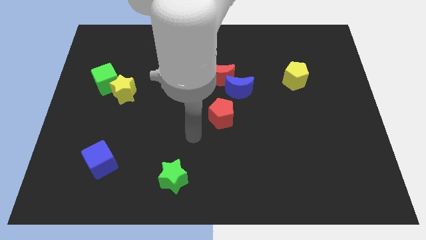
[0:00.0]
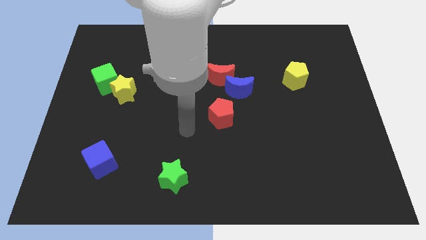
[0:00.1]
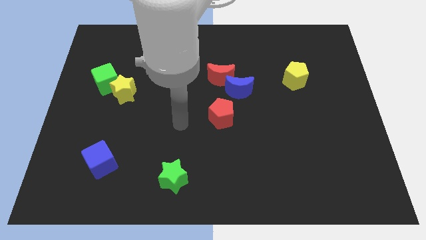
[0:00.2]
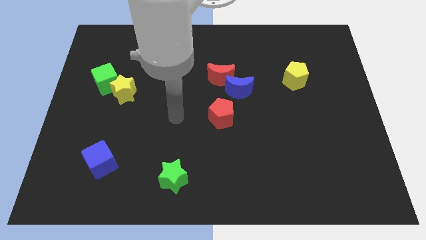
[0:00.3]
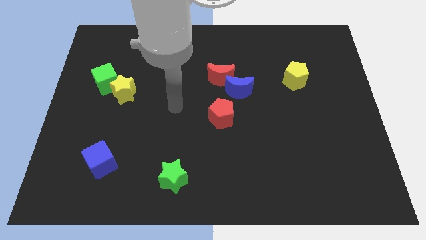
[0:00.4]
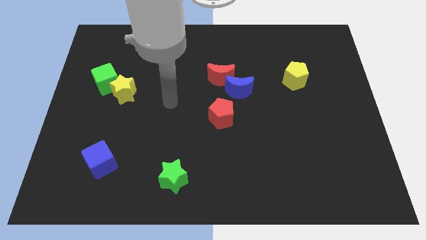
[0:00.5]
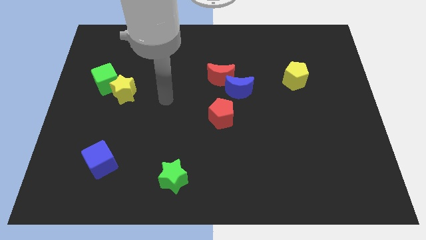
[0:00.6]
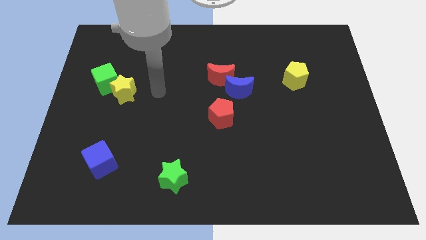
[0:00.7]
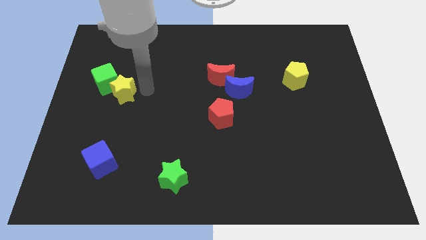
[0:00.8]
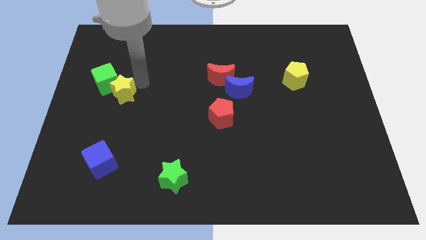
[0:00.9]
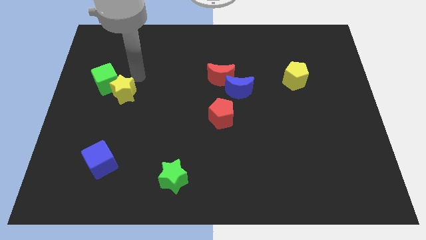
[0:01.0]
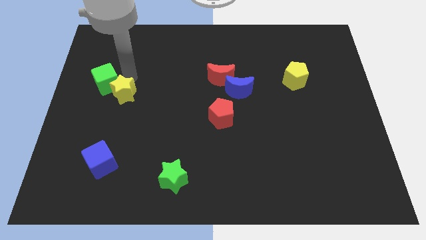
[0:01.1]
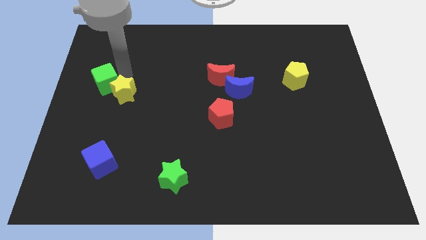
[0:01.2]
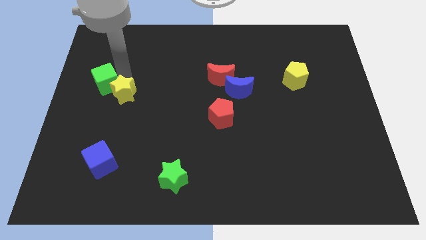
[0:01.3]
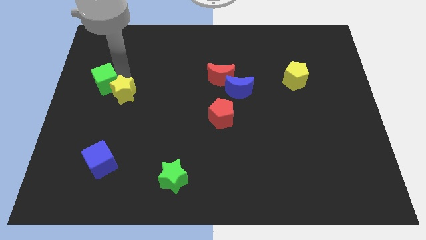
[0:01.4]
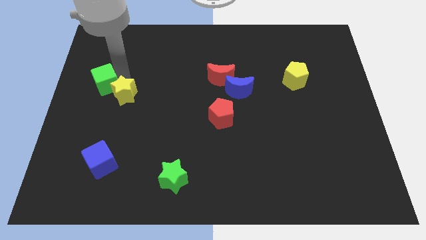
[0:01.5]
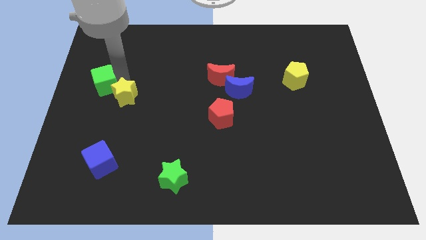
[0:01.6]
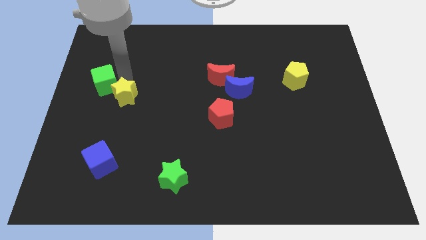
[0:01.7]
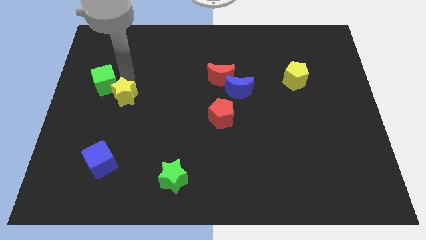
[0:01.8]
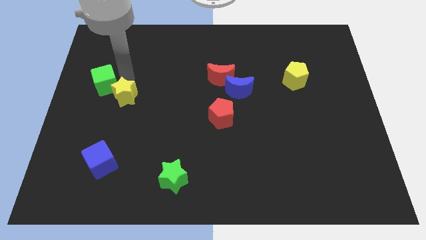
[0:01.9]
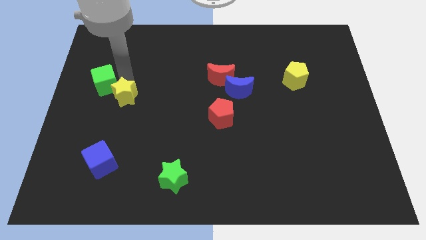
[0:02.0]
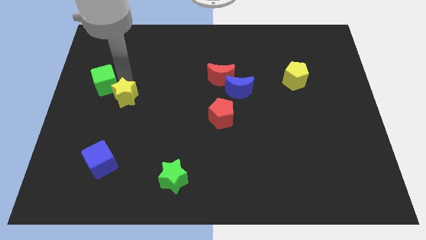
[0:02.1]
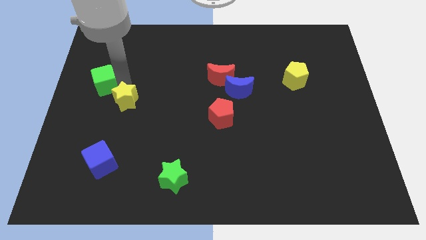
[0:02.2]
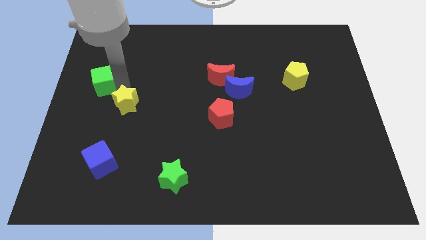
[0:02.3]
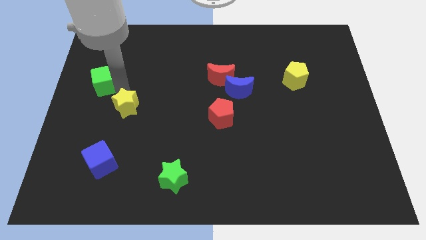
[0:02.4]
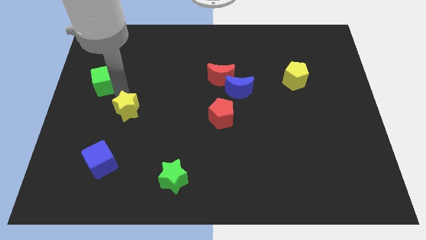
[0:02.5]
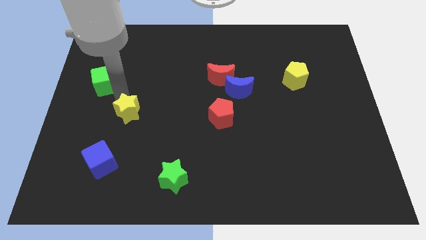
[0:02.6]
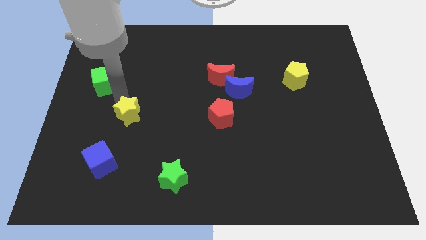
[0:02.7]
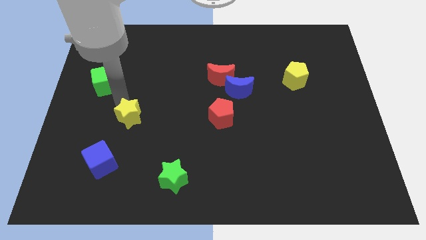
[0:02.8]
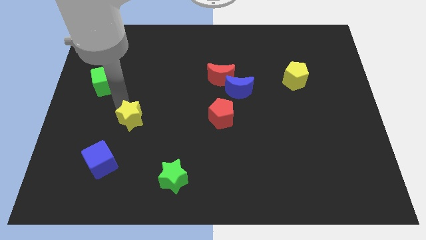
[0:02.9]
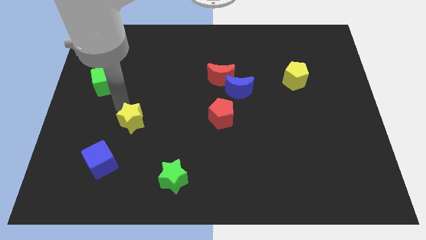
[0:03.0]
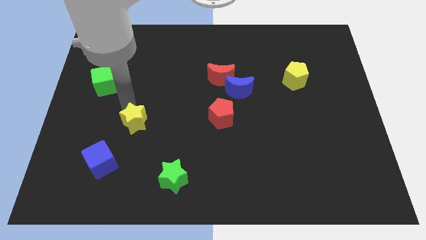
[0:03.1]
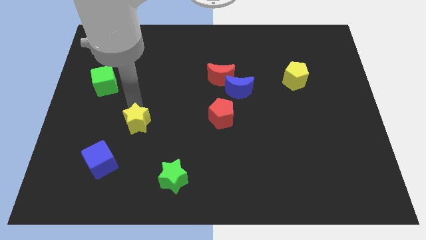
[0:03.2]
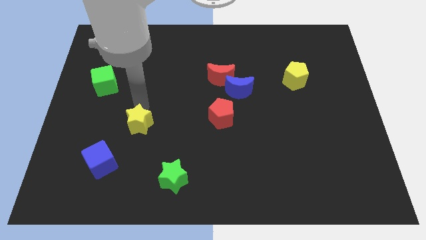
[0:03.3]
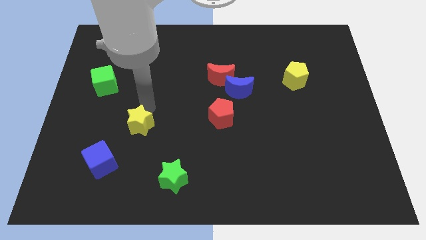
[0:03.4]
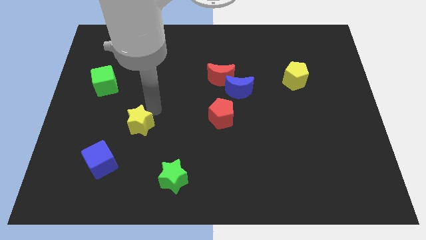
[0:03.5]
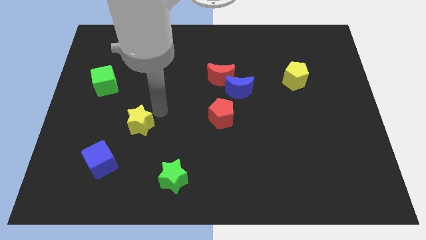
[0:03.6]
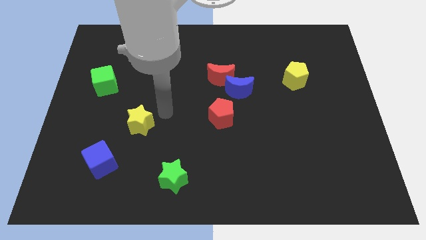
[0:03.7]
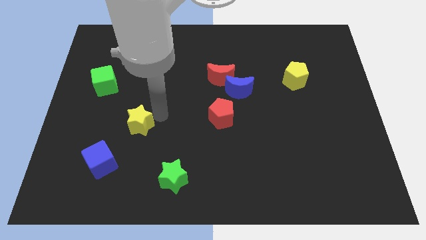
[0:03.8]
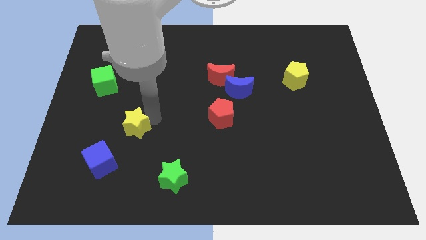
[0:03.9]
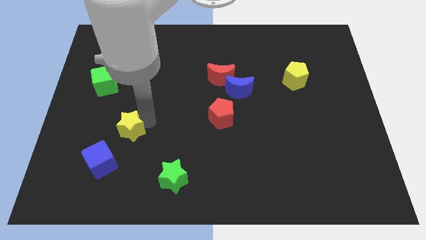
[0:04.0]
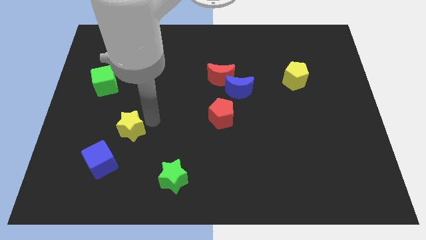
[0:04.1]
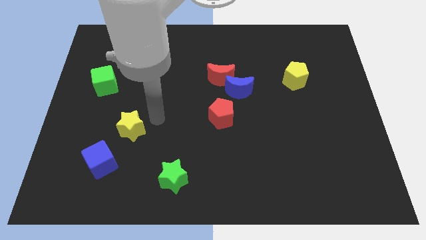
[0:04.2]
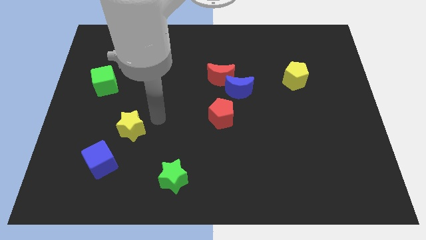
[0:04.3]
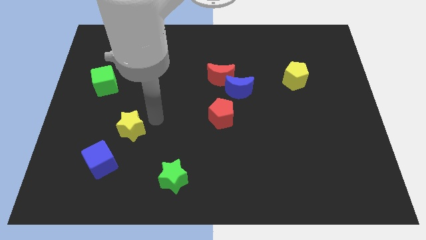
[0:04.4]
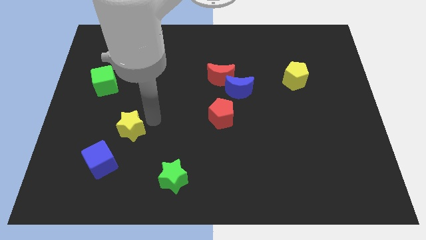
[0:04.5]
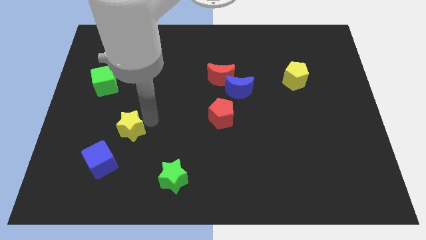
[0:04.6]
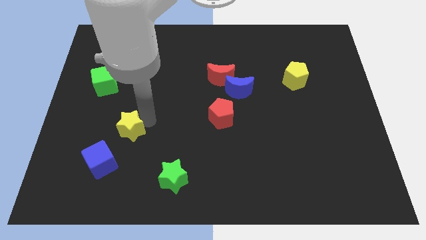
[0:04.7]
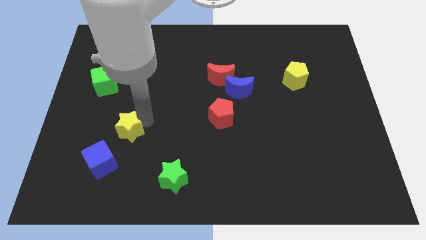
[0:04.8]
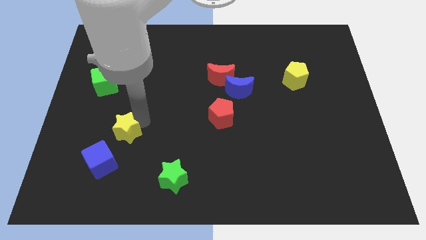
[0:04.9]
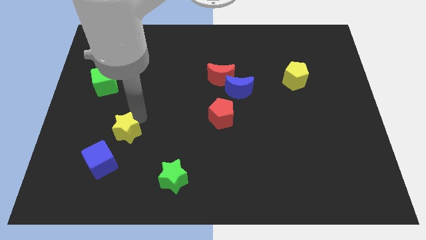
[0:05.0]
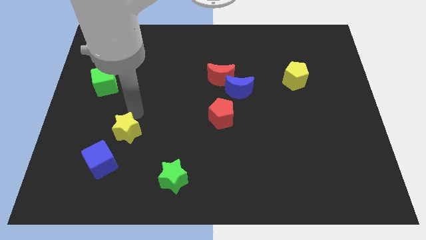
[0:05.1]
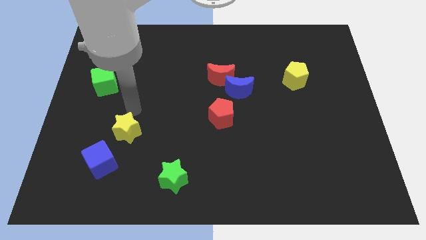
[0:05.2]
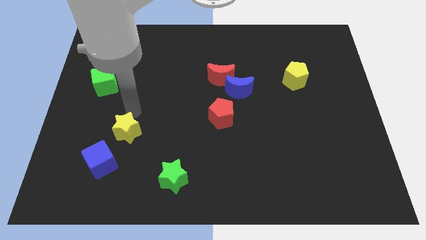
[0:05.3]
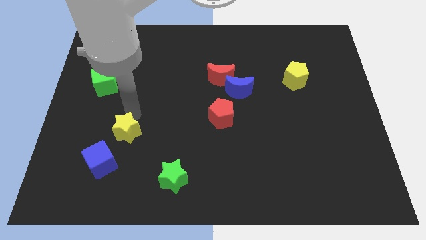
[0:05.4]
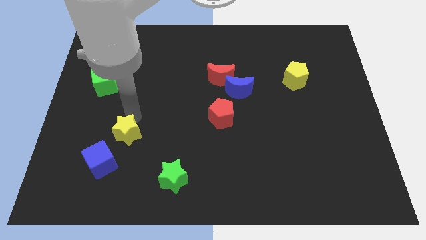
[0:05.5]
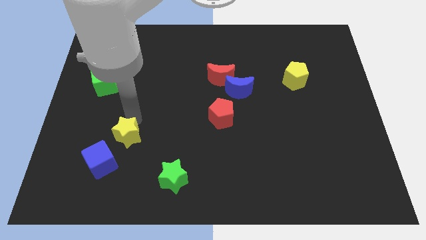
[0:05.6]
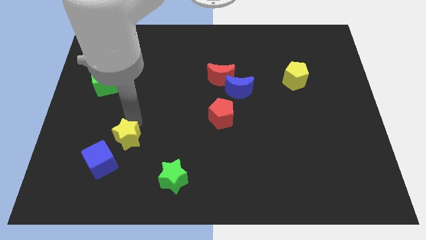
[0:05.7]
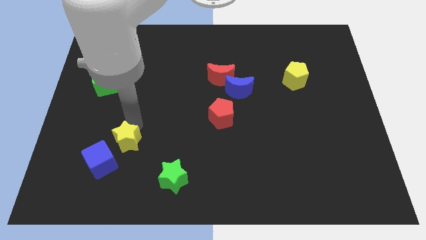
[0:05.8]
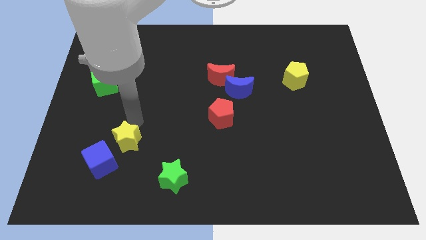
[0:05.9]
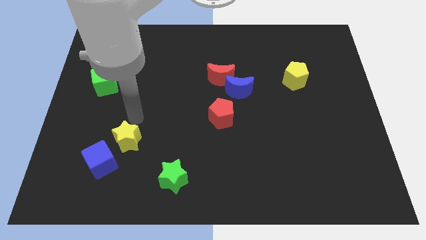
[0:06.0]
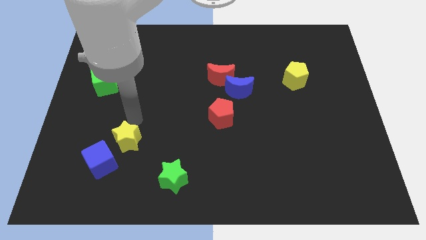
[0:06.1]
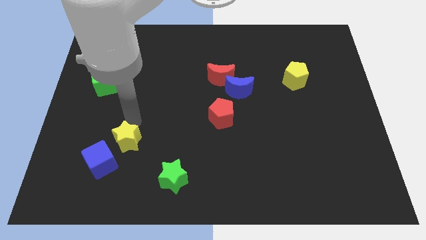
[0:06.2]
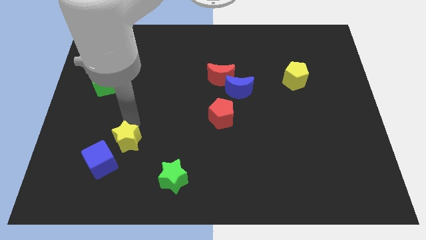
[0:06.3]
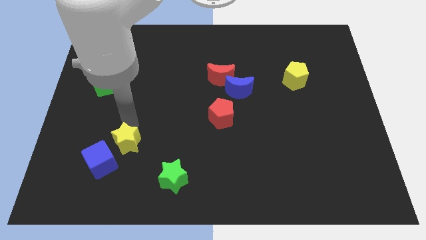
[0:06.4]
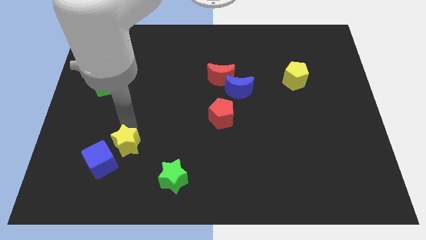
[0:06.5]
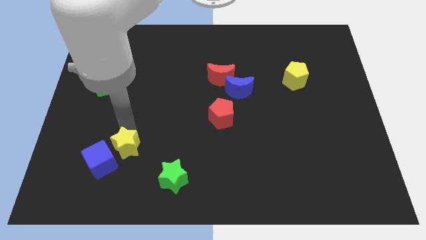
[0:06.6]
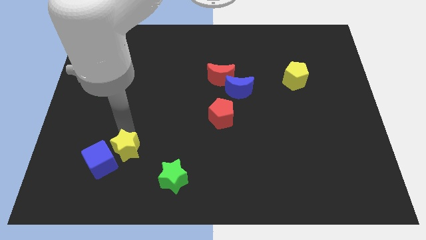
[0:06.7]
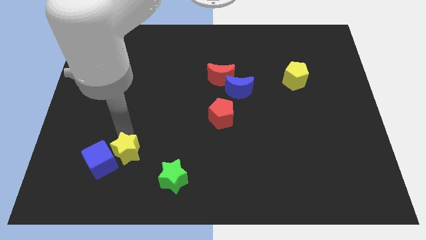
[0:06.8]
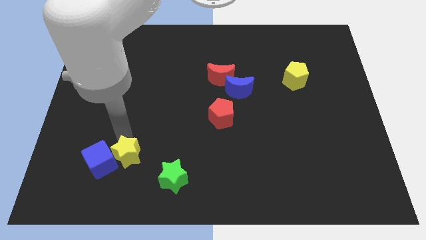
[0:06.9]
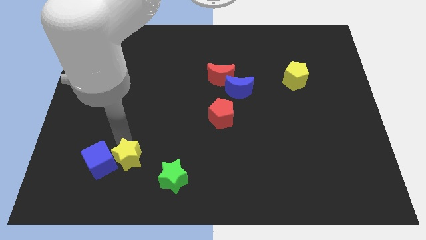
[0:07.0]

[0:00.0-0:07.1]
move the yellow star to the left side of the green star

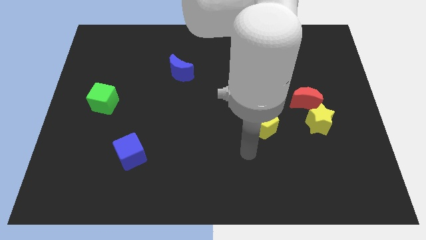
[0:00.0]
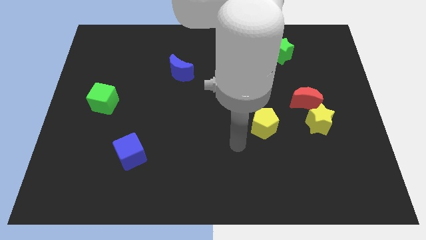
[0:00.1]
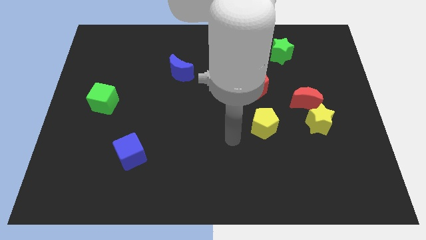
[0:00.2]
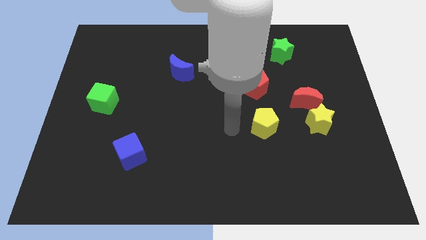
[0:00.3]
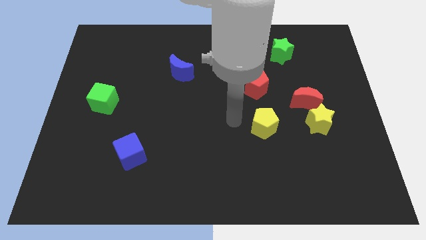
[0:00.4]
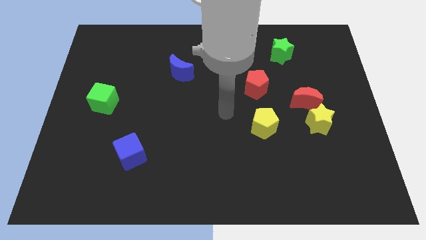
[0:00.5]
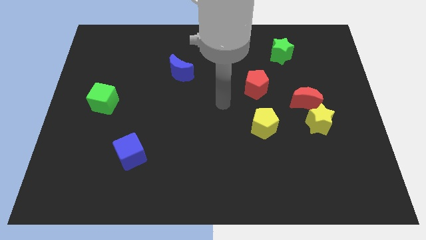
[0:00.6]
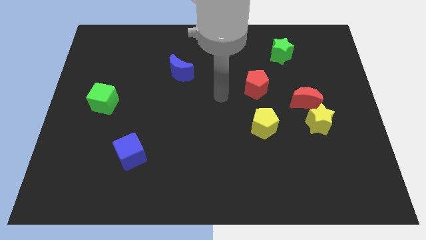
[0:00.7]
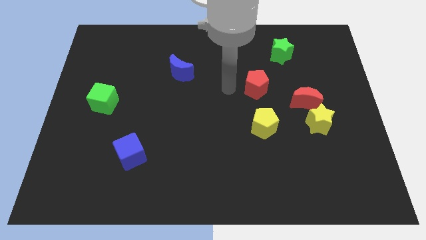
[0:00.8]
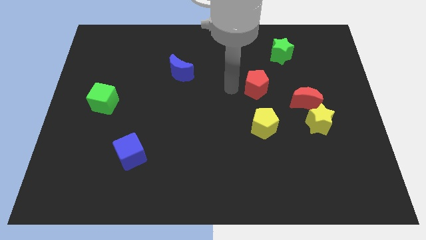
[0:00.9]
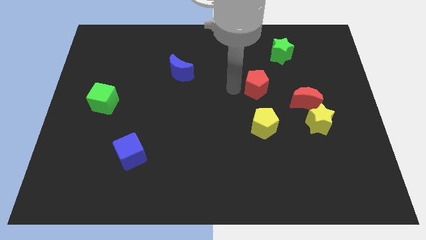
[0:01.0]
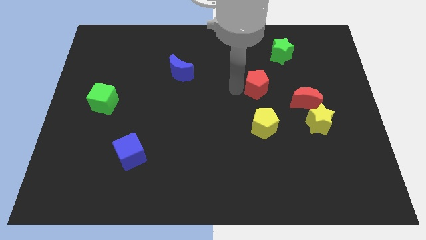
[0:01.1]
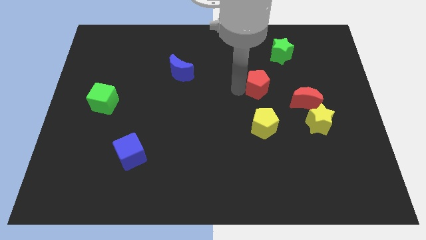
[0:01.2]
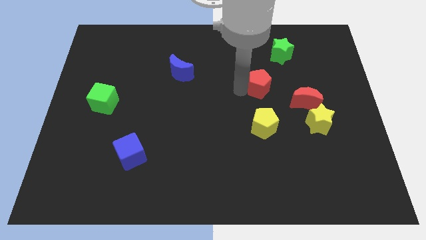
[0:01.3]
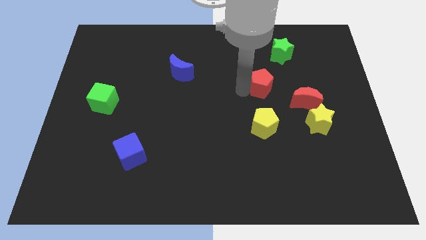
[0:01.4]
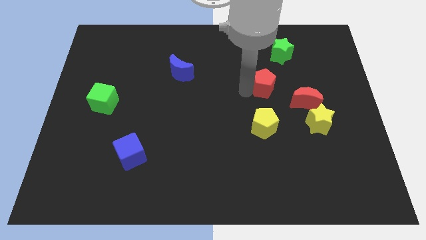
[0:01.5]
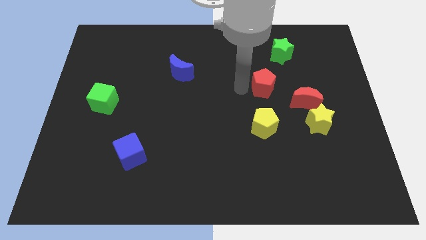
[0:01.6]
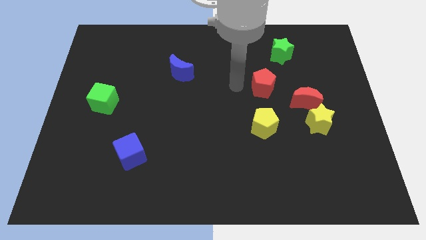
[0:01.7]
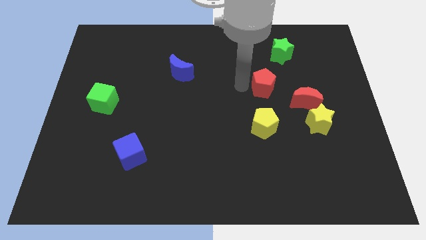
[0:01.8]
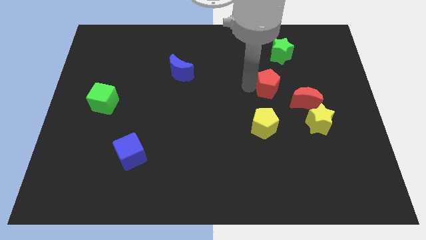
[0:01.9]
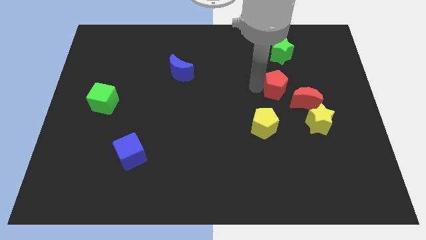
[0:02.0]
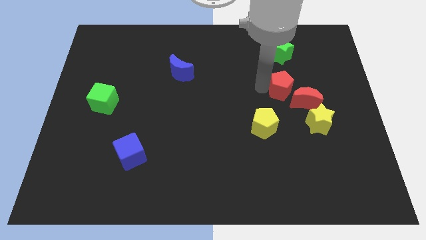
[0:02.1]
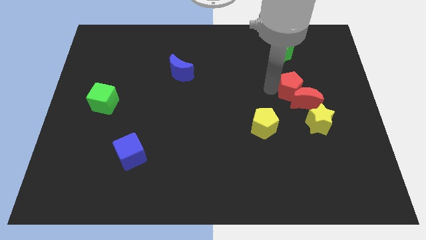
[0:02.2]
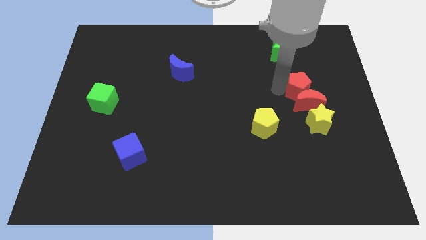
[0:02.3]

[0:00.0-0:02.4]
put the red pentagon above the yellow star
